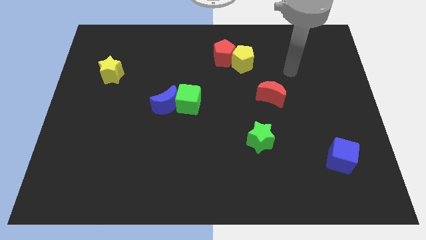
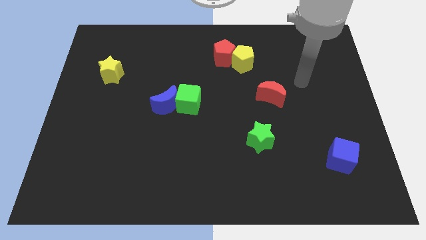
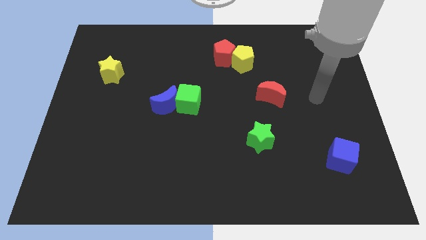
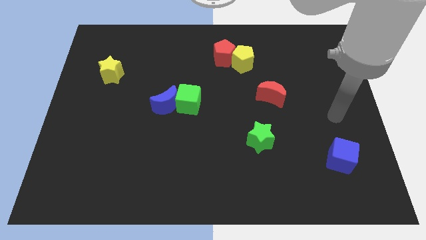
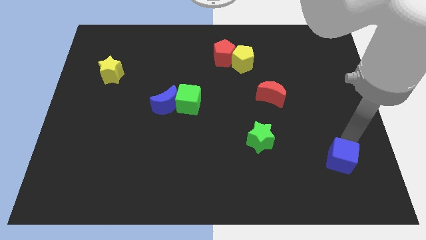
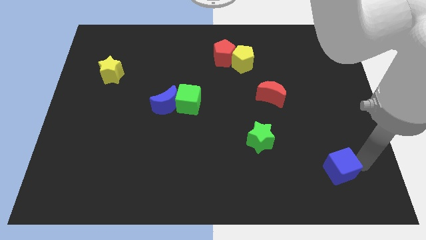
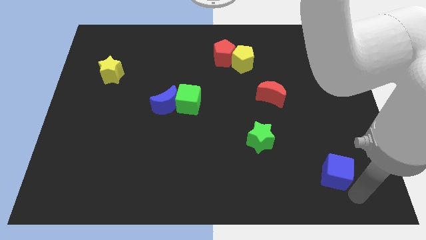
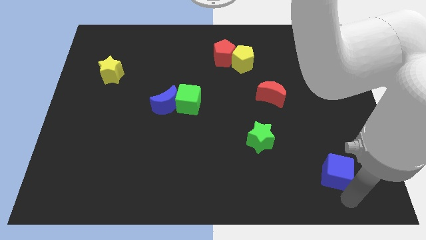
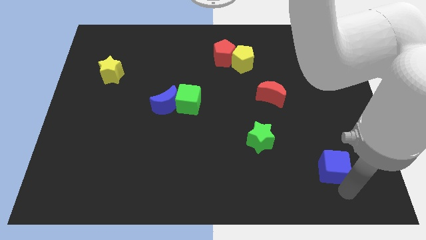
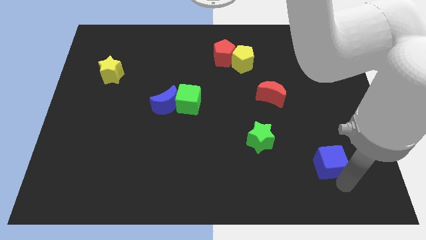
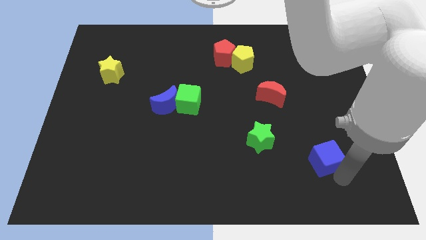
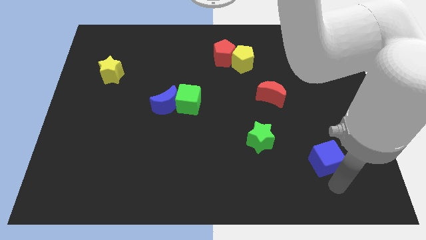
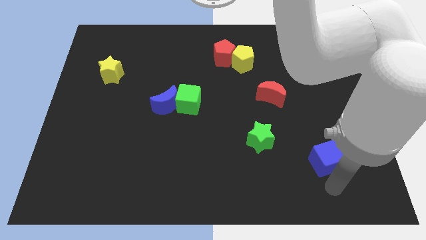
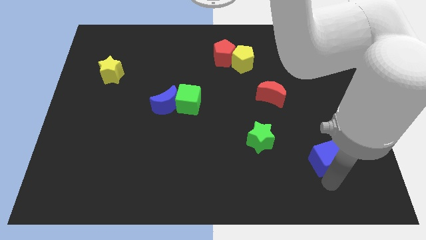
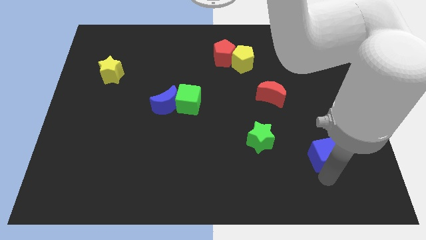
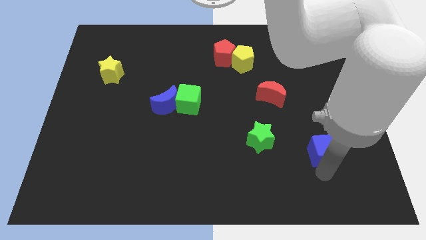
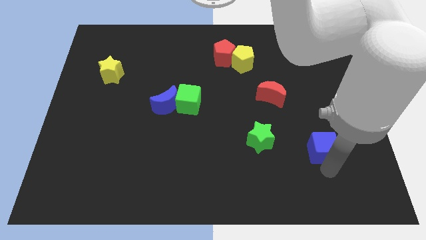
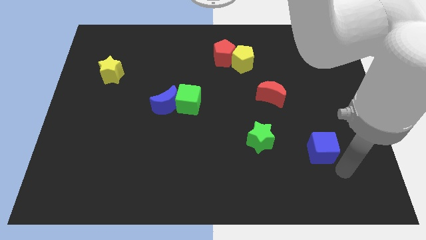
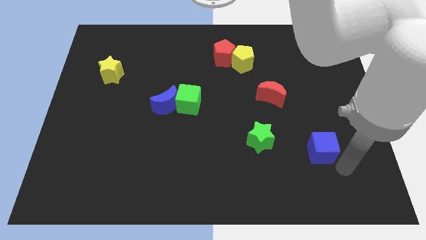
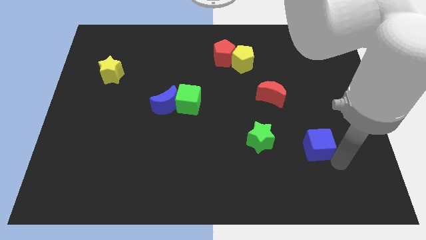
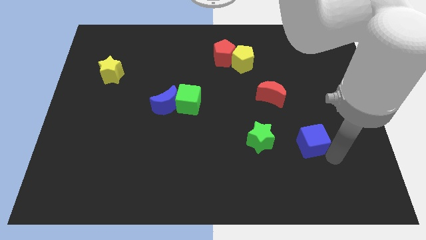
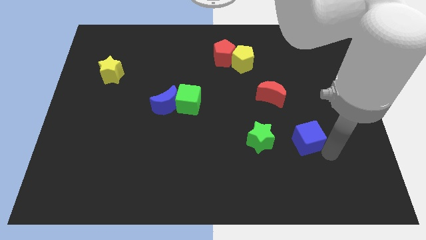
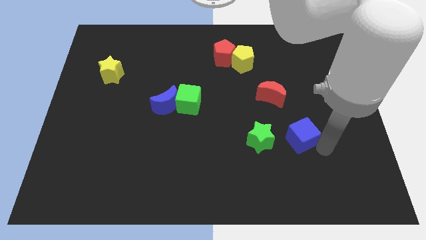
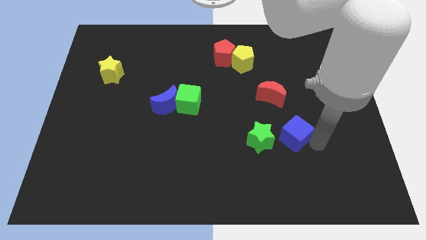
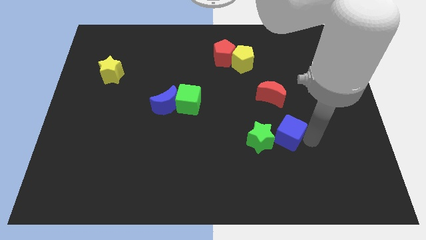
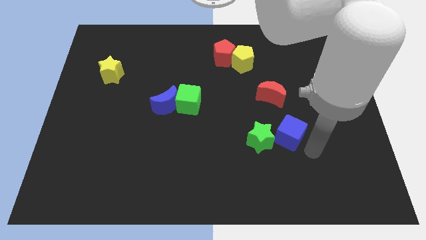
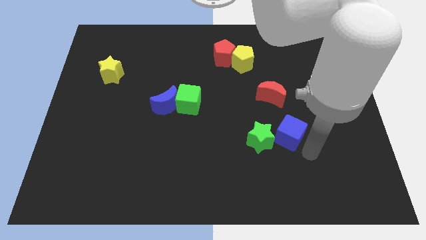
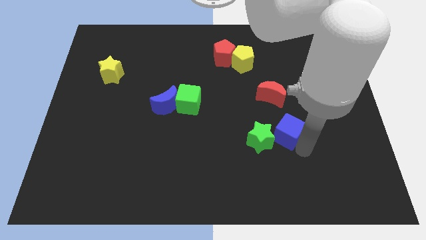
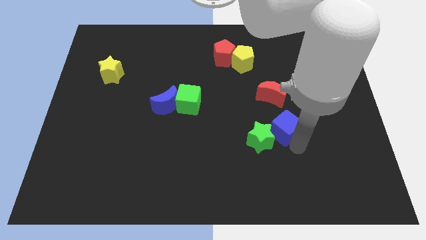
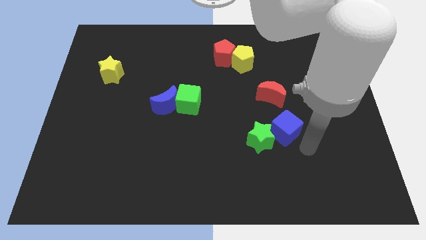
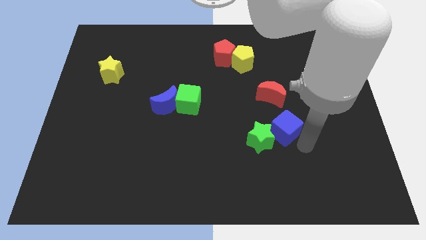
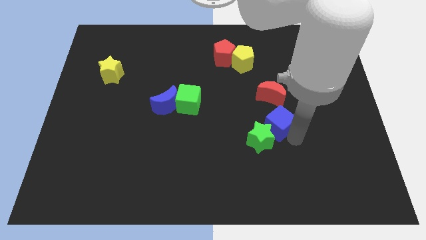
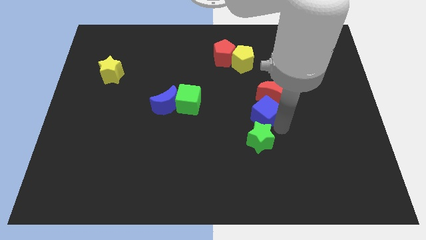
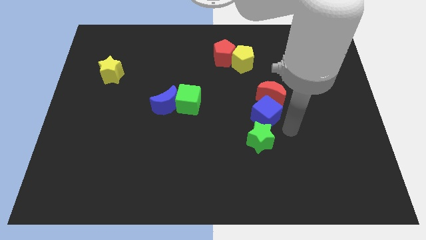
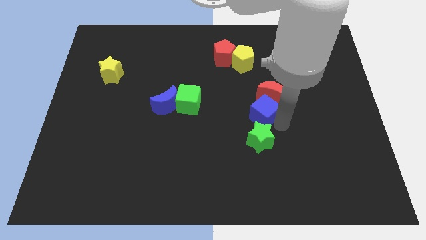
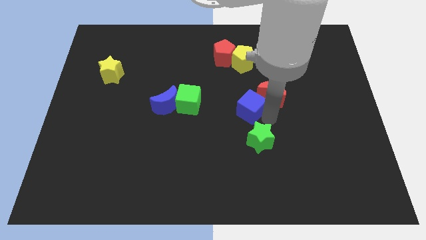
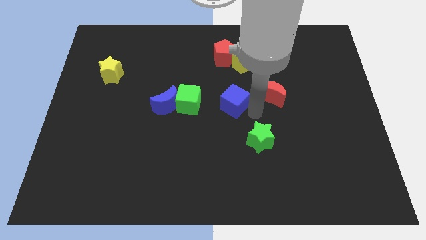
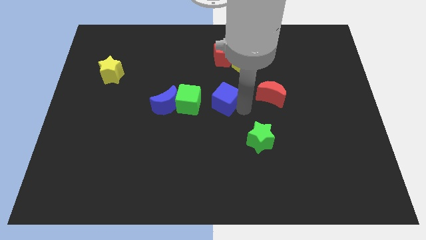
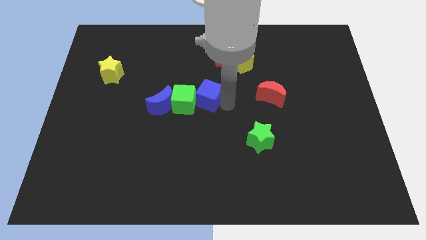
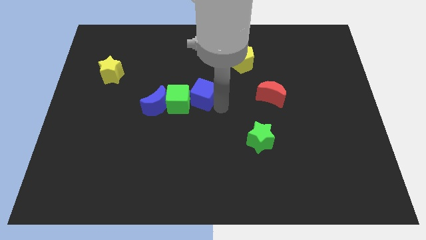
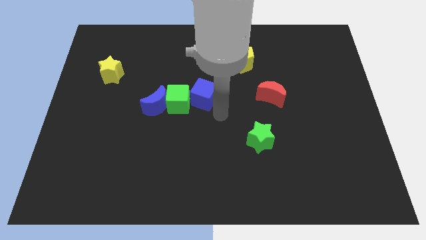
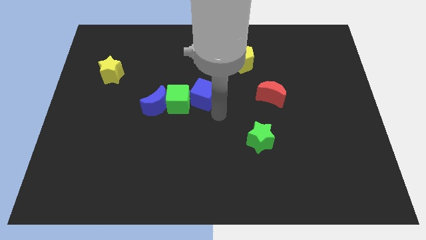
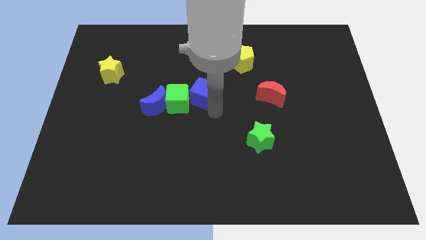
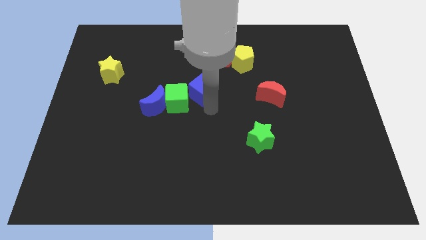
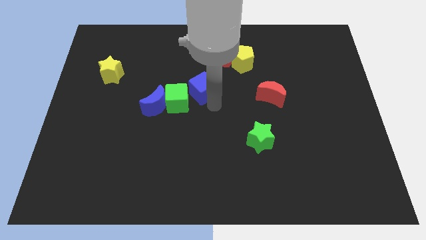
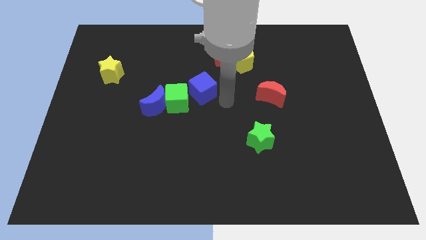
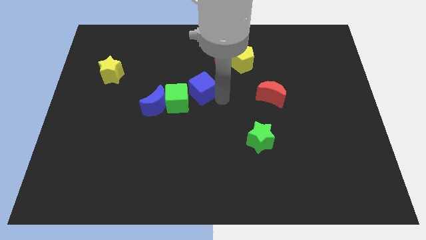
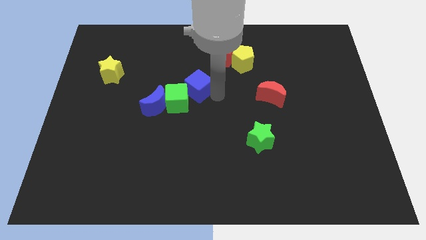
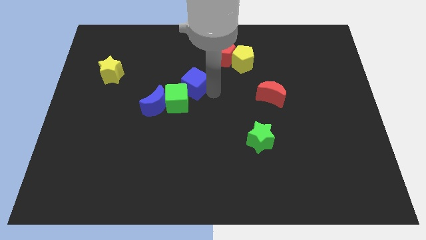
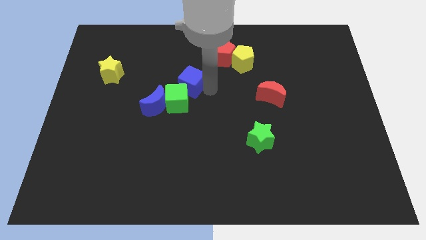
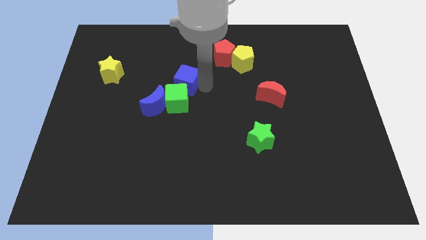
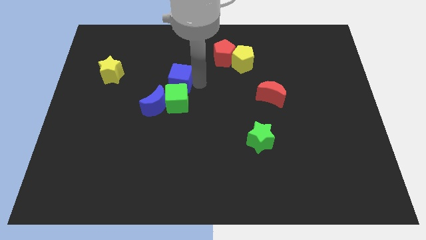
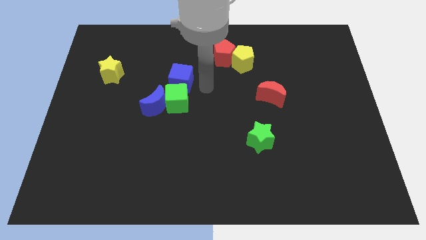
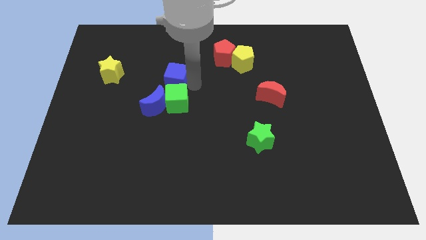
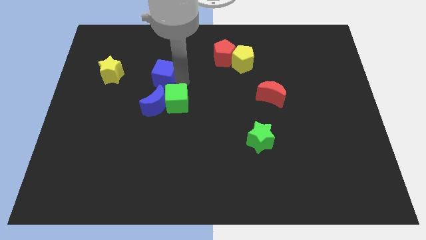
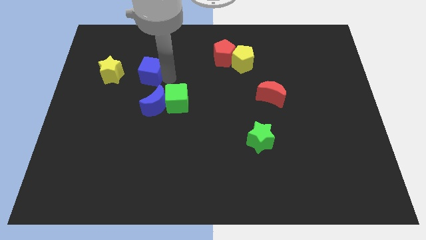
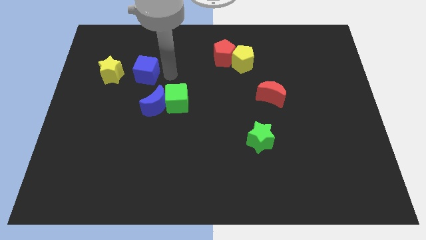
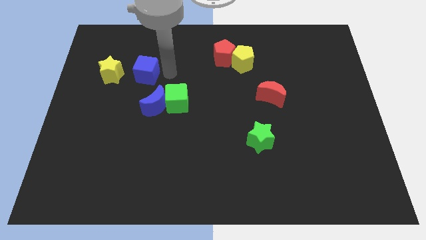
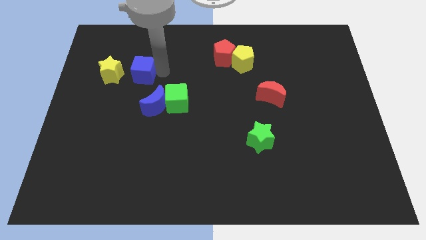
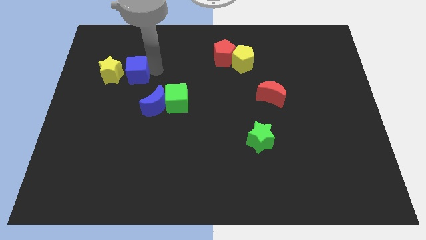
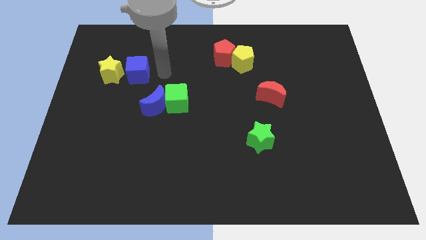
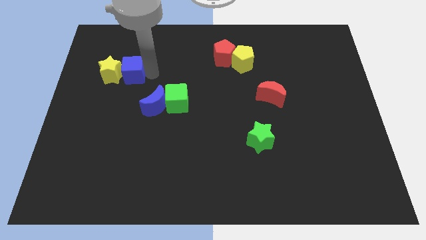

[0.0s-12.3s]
put the blue cube next to the yellow star
